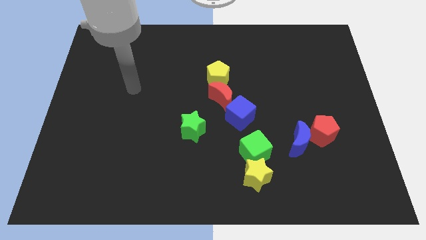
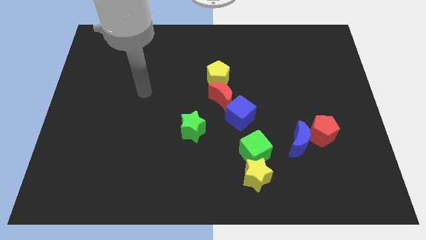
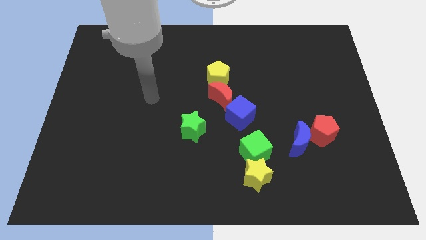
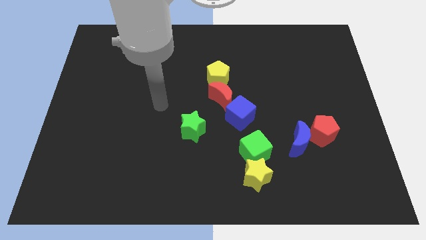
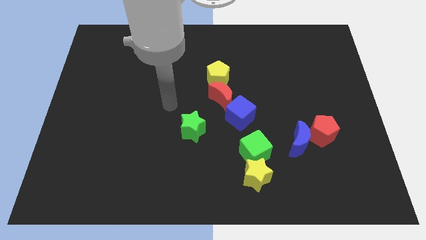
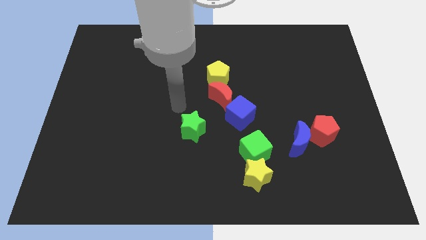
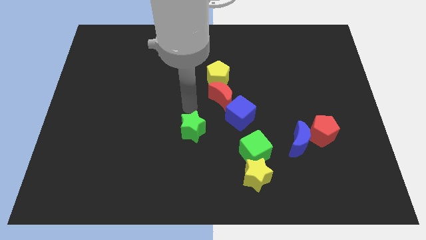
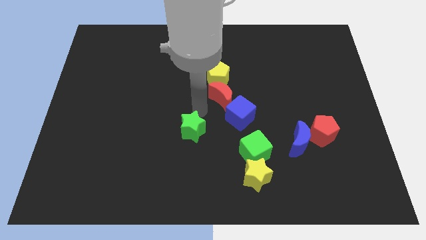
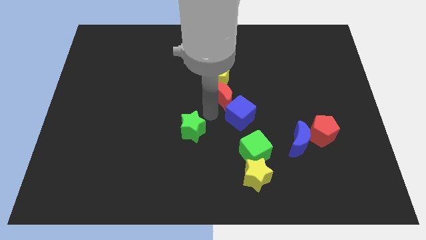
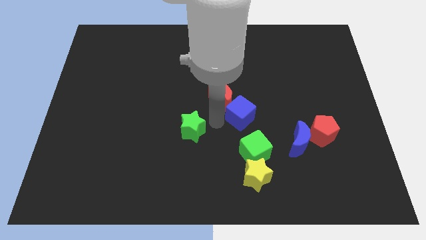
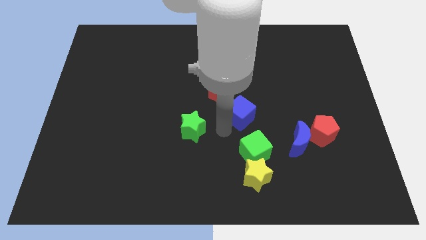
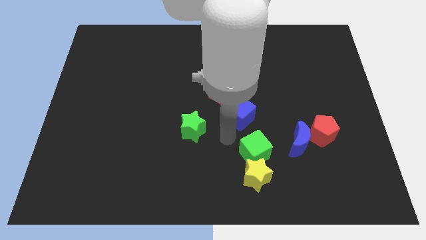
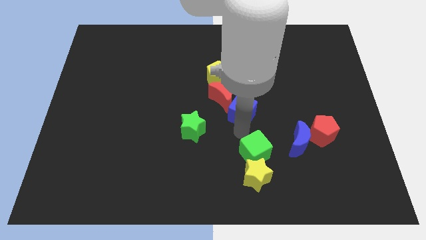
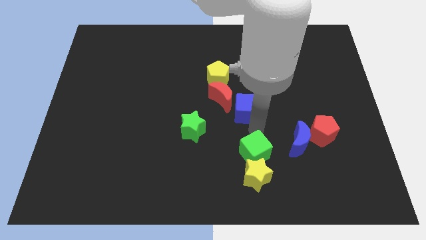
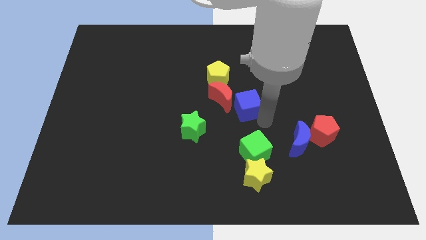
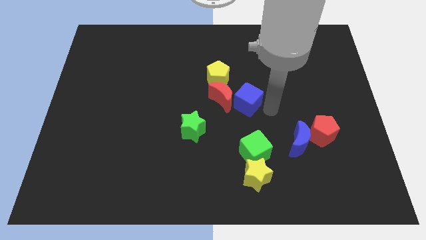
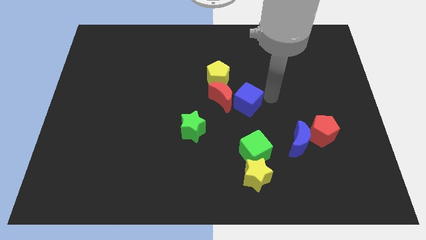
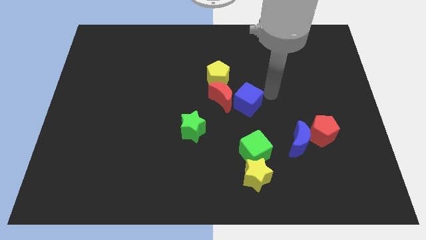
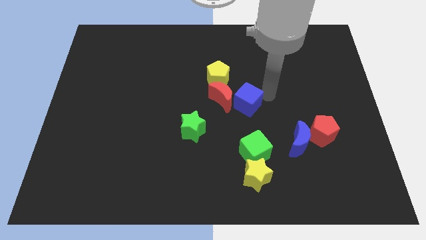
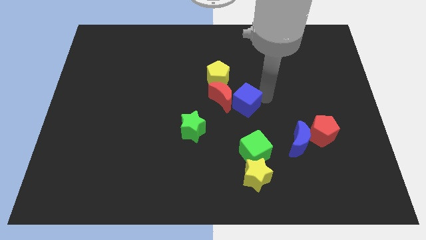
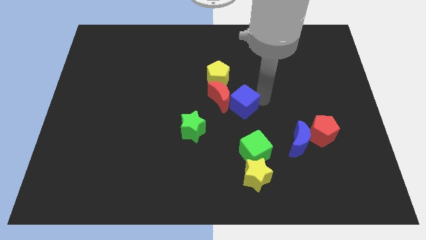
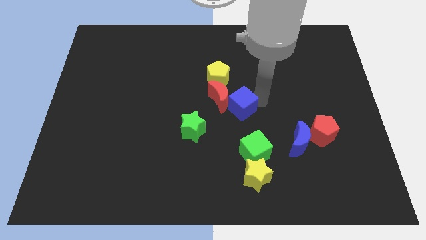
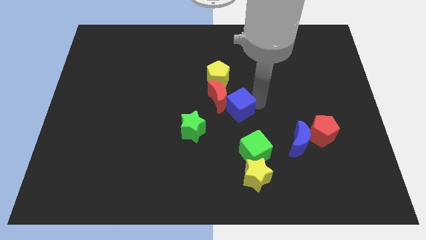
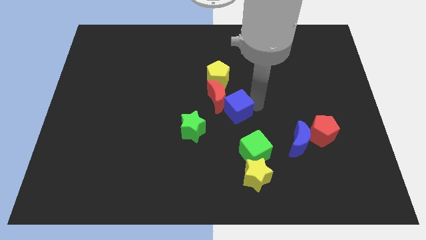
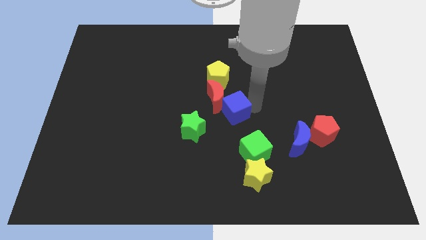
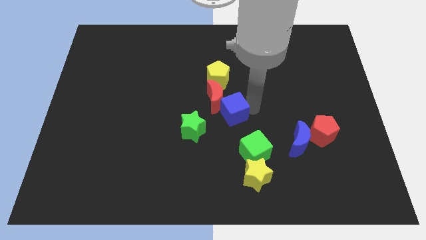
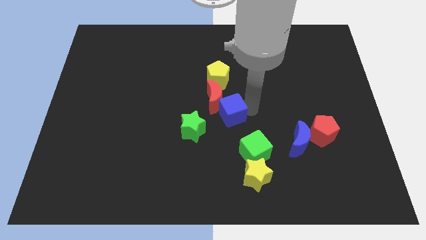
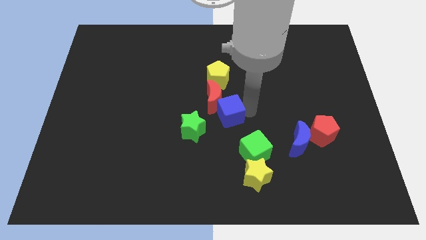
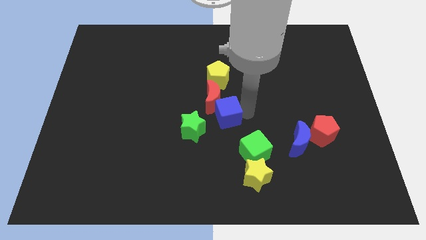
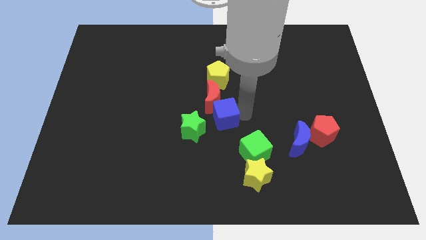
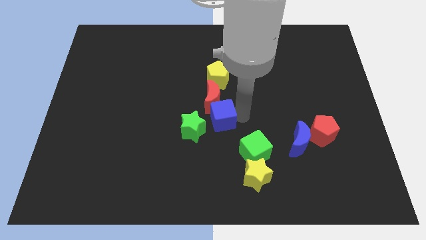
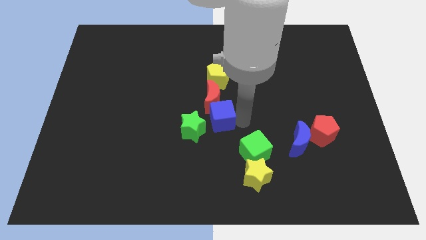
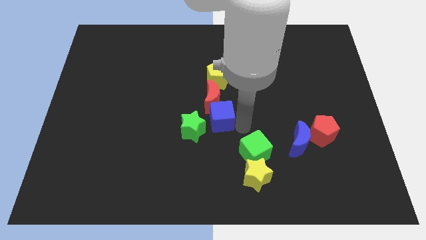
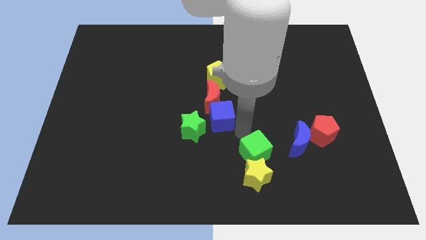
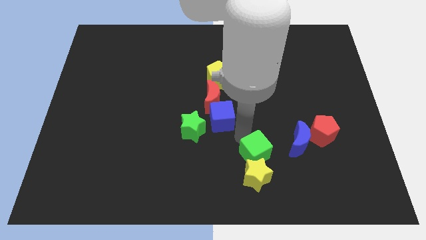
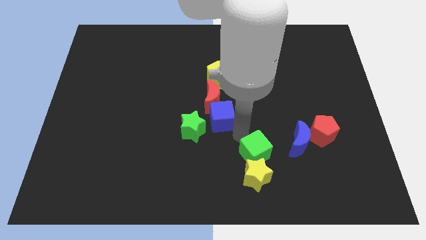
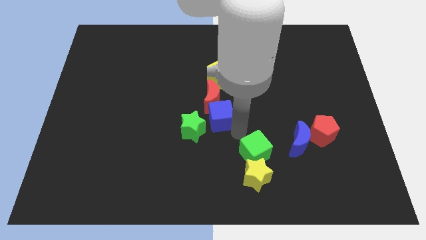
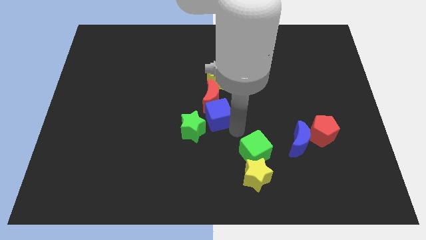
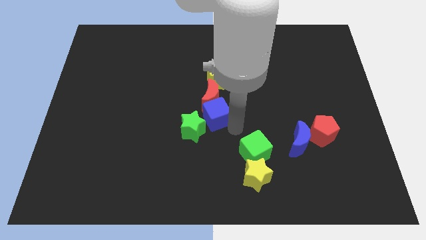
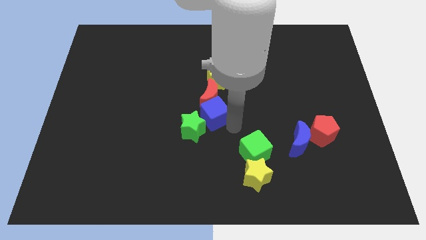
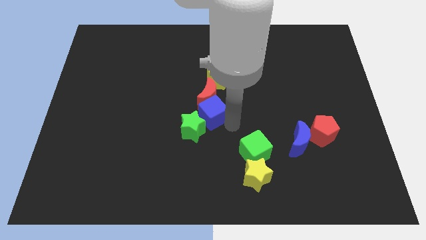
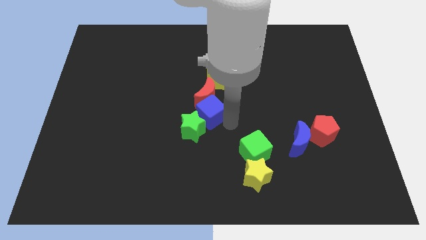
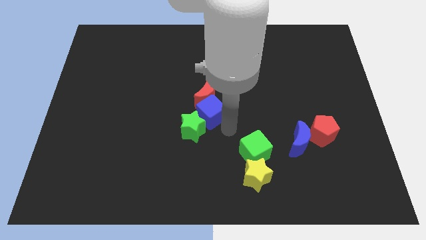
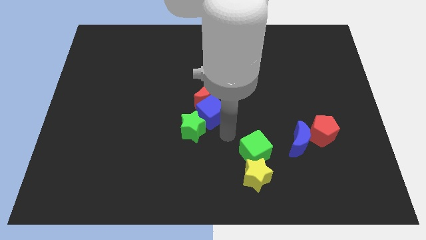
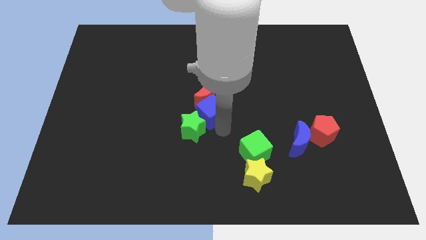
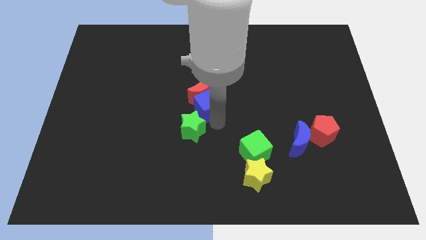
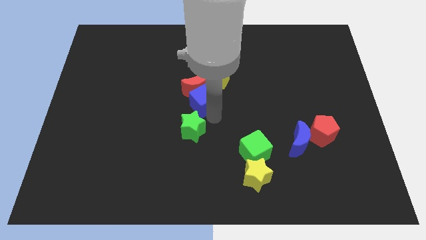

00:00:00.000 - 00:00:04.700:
slightly push the blue cube upwards and to the left diagonally

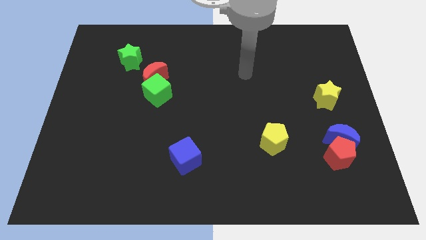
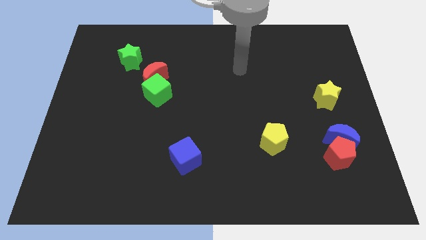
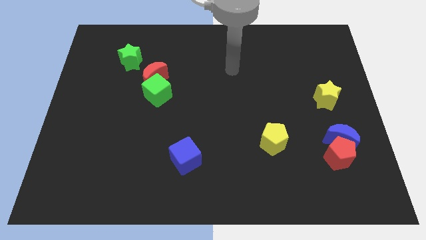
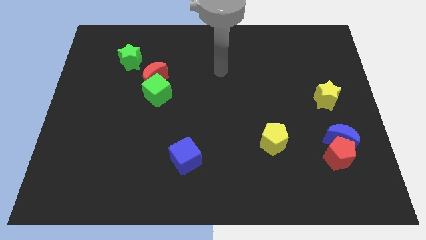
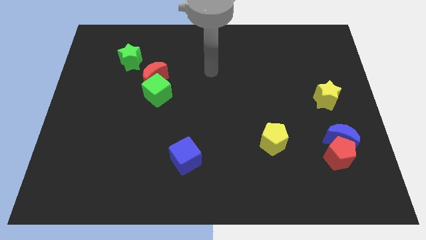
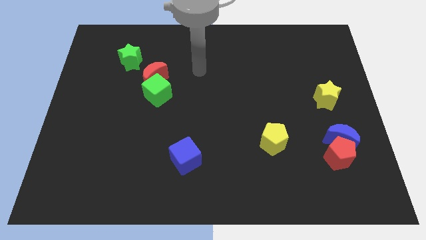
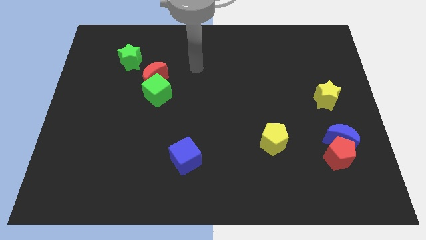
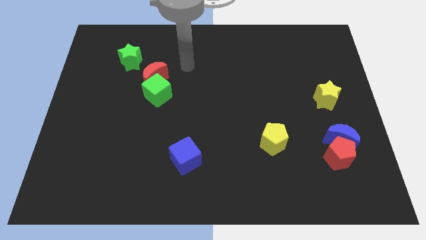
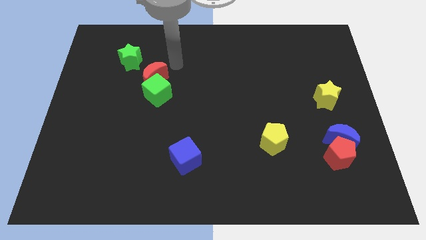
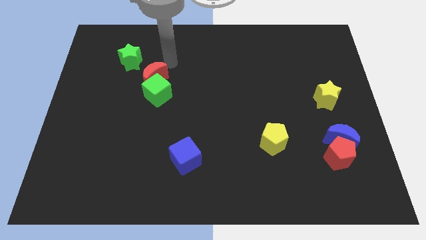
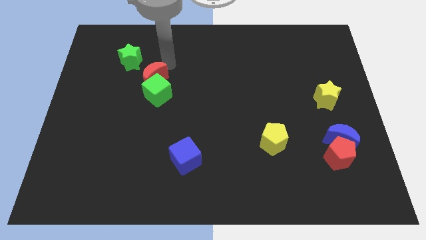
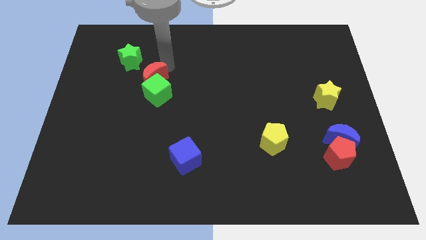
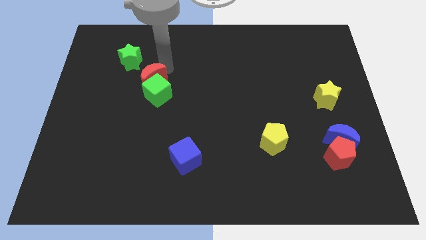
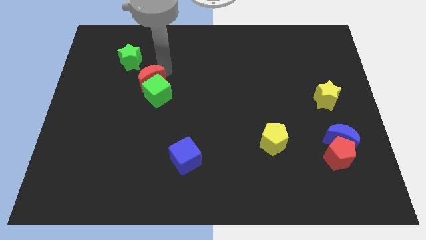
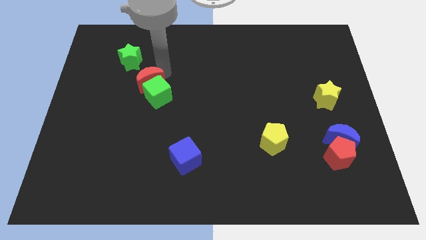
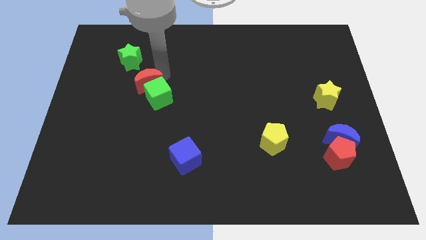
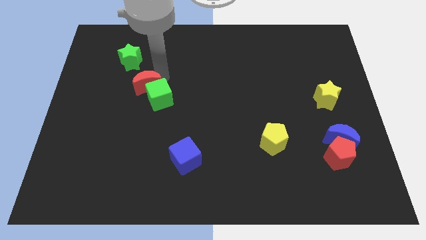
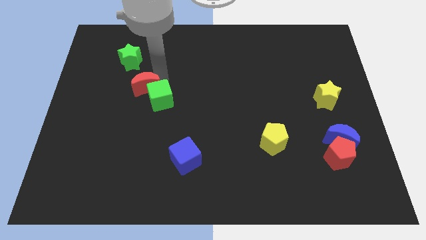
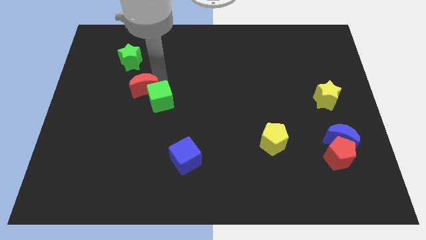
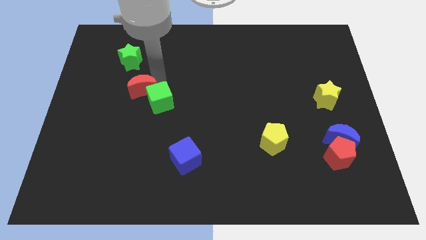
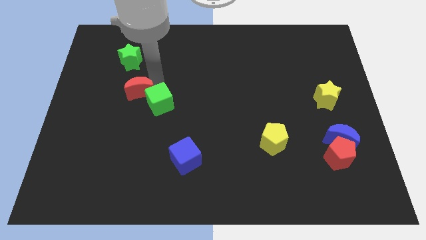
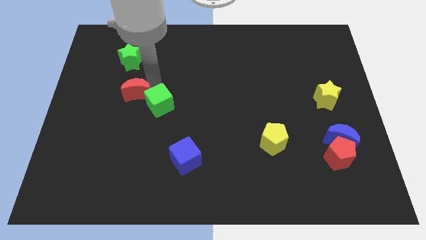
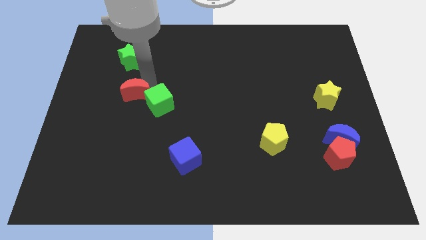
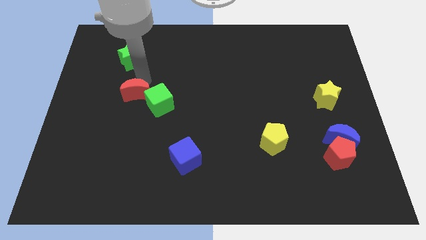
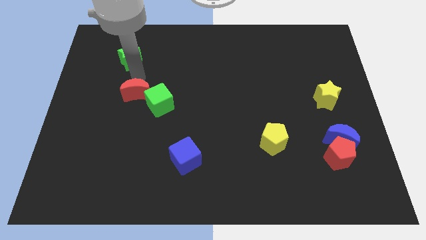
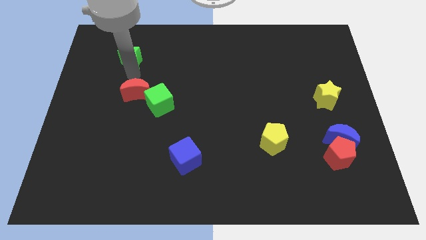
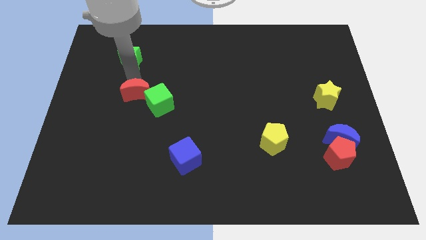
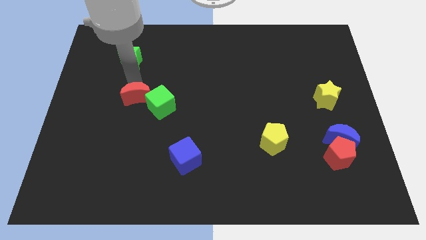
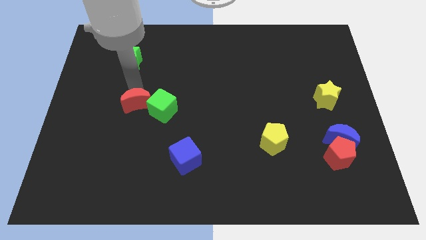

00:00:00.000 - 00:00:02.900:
push the red moon downwards slightly

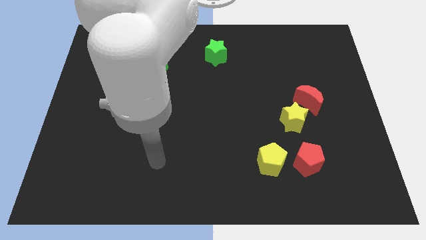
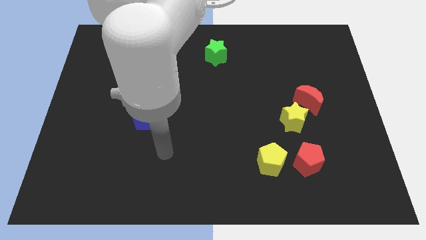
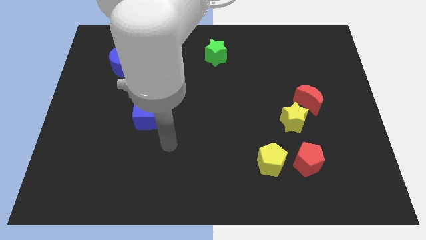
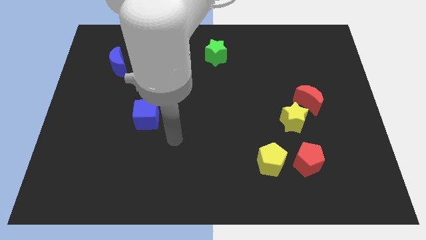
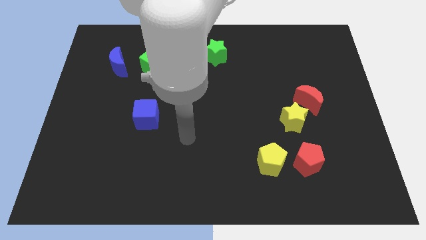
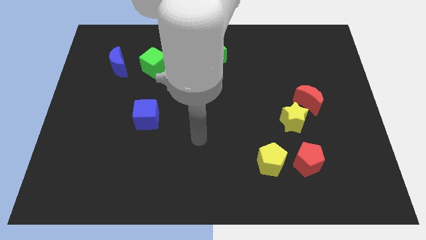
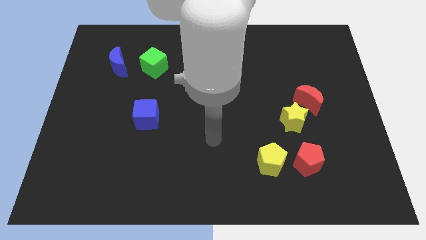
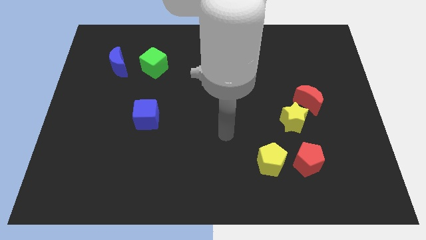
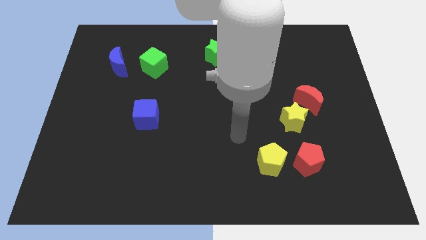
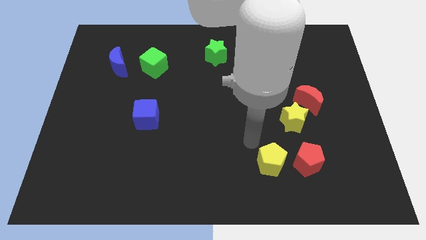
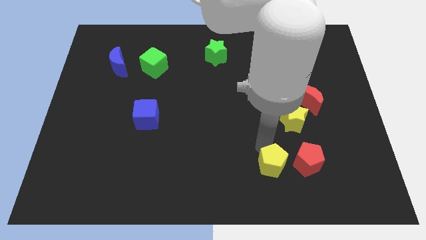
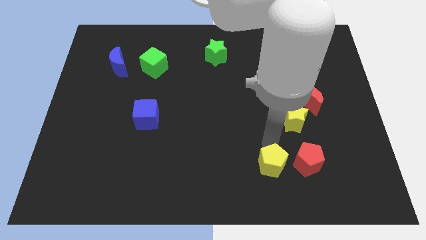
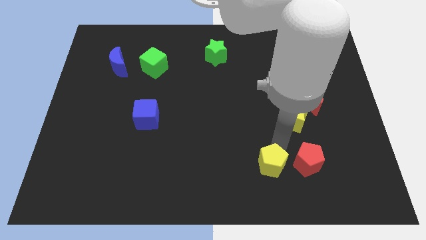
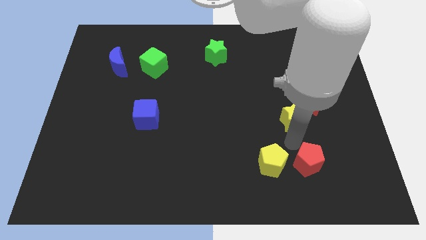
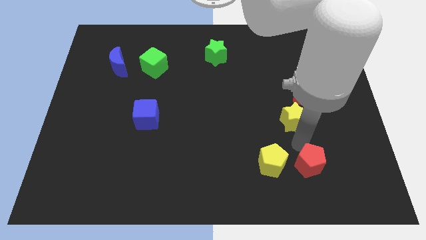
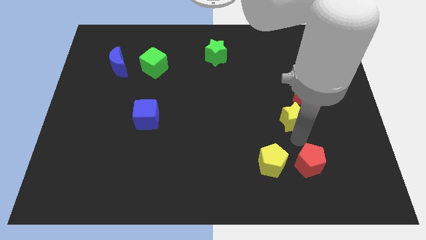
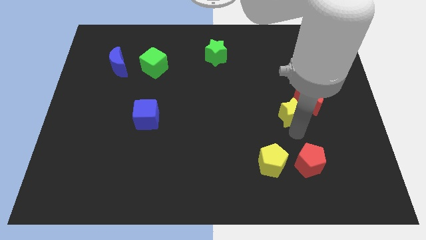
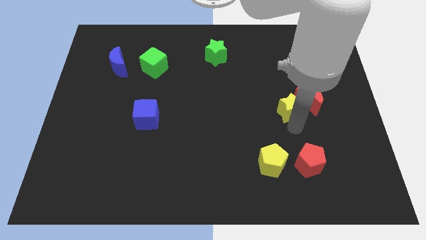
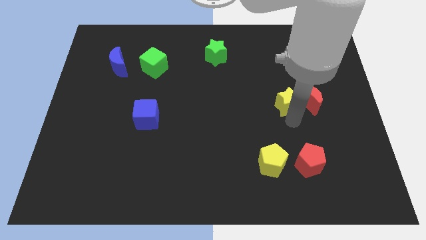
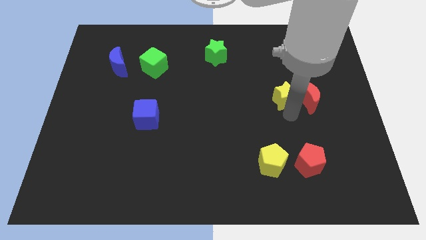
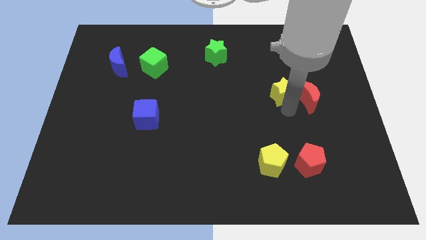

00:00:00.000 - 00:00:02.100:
slide the yellow star a little up
